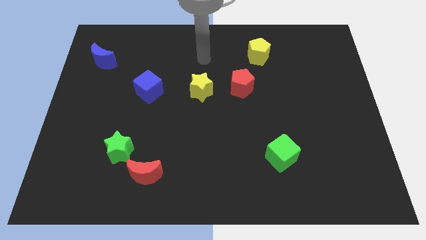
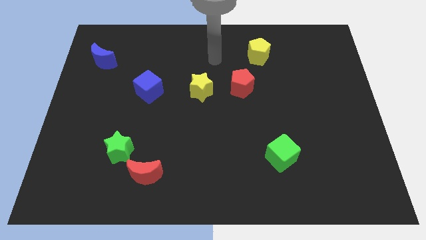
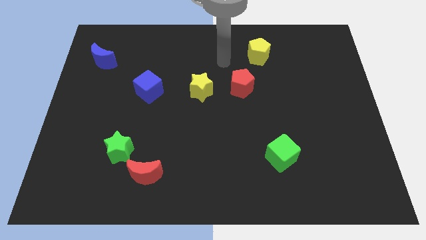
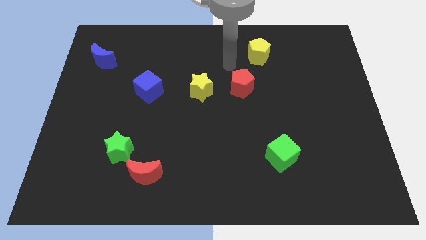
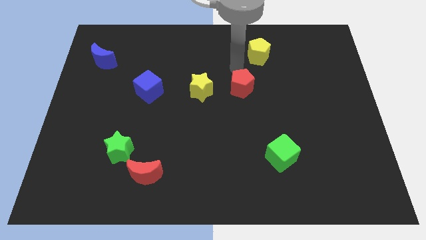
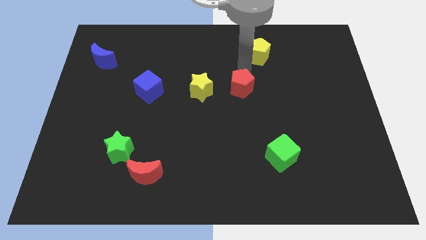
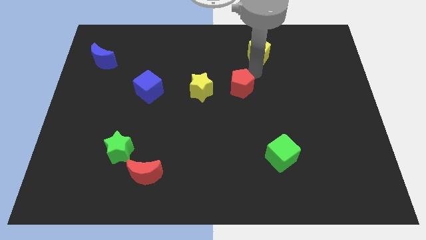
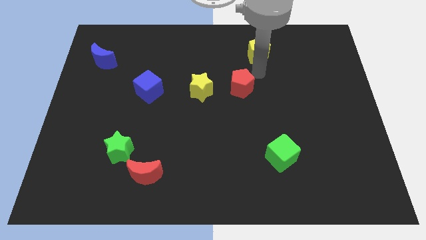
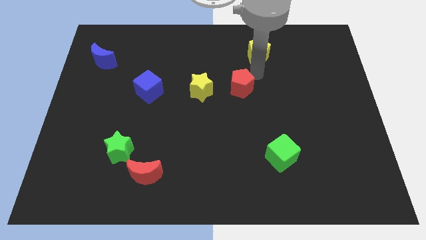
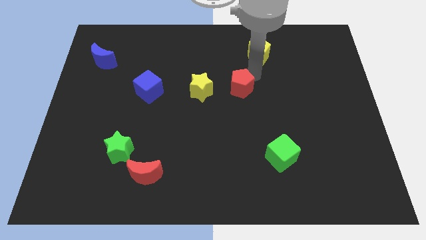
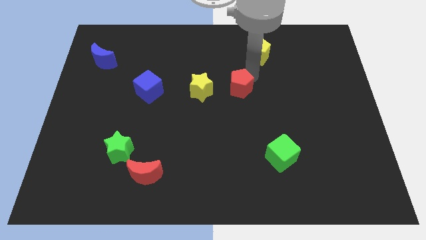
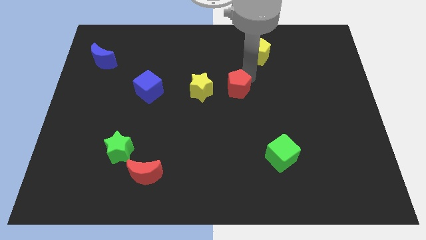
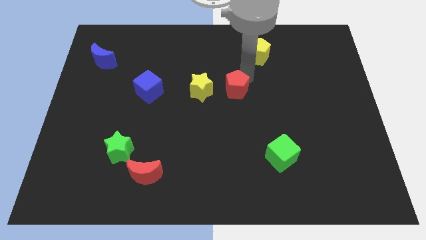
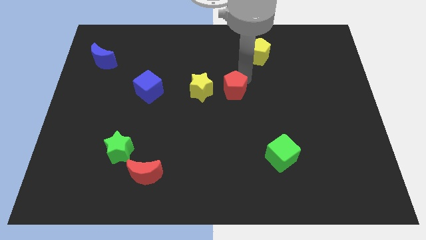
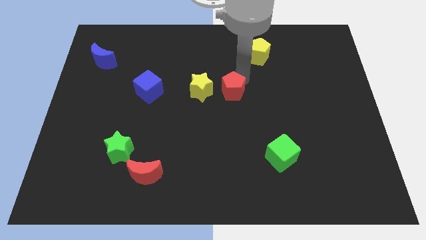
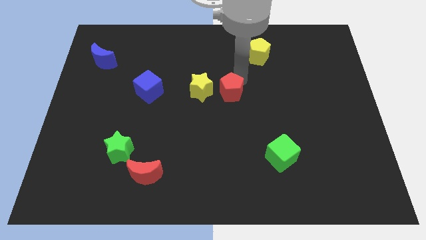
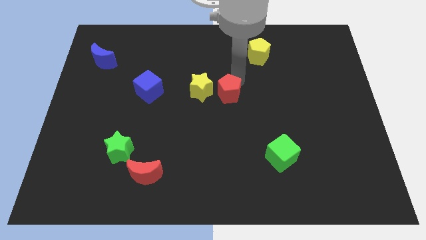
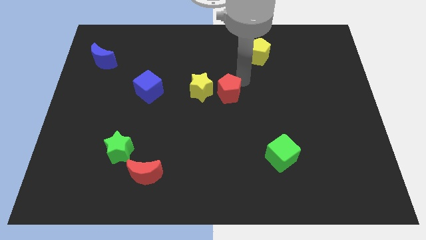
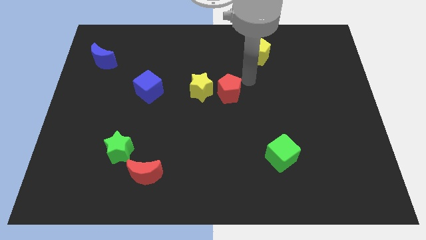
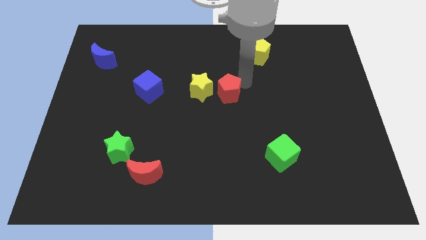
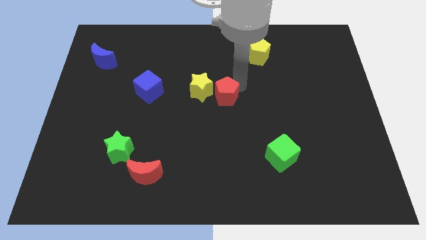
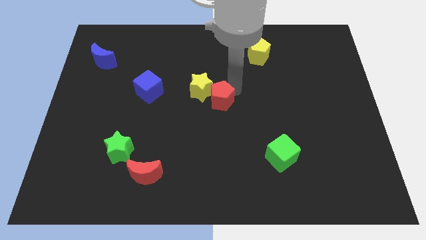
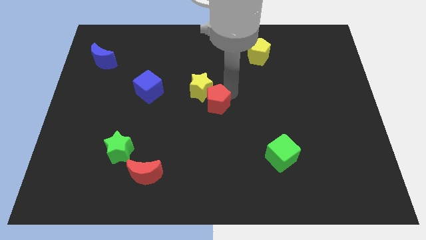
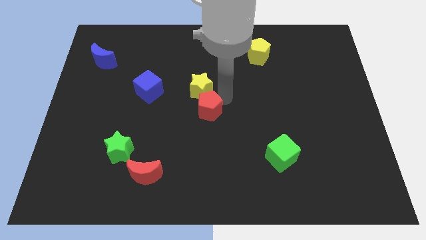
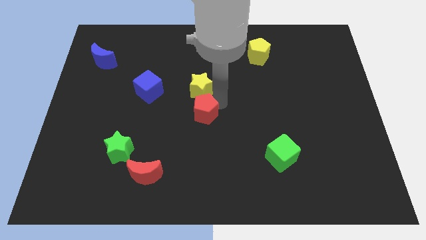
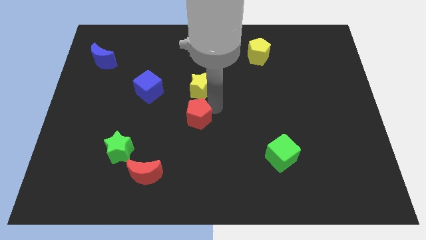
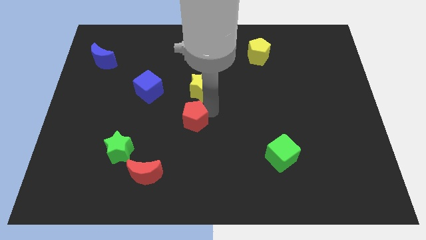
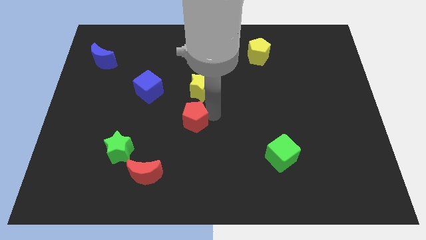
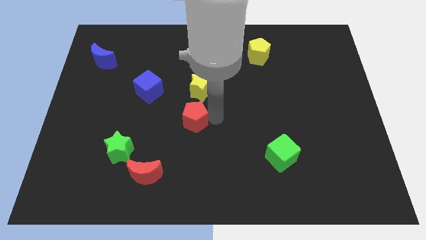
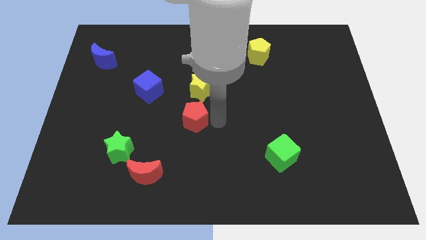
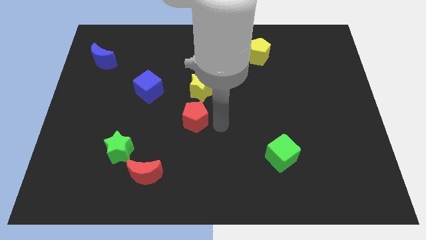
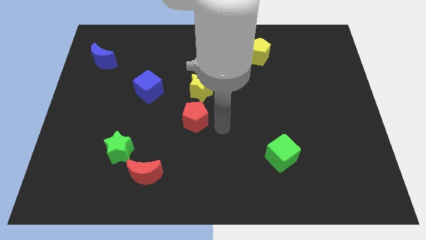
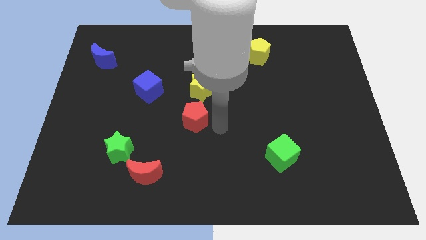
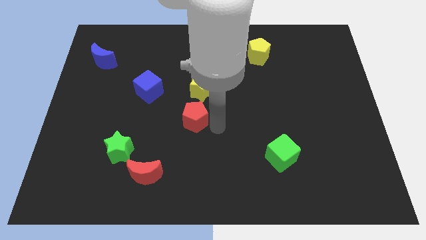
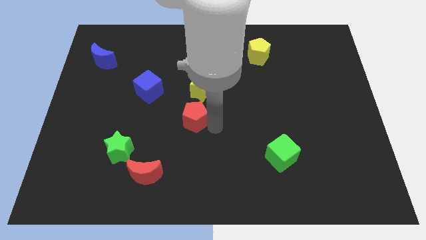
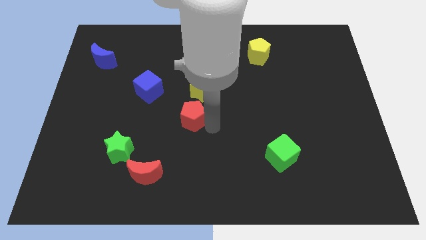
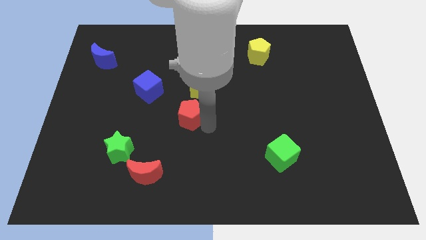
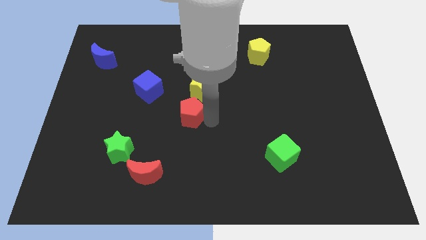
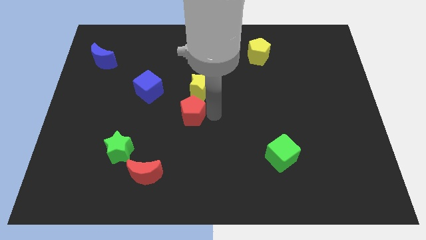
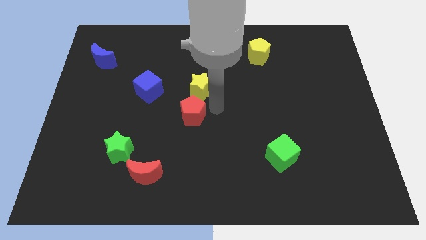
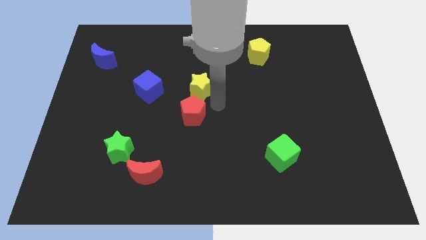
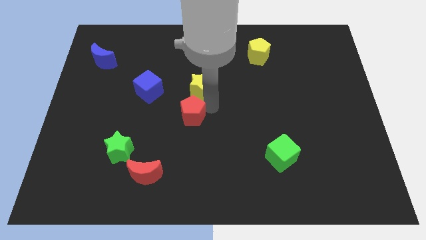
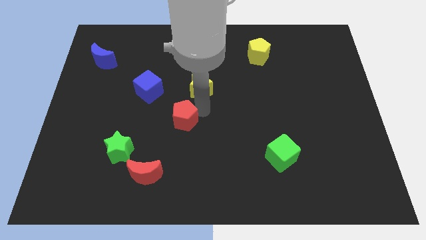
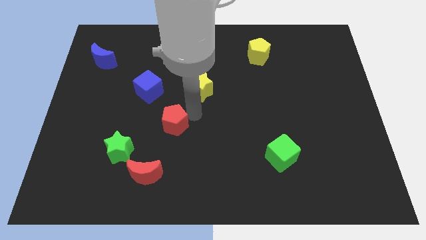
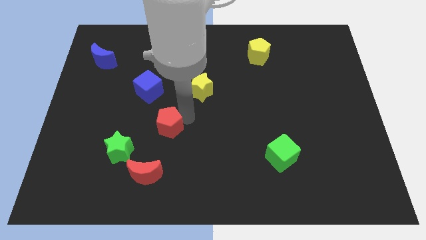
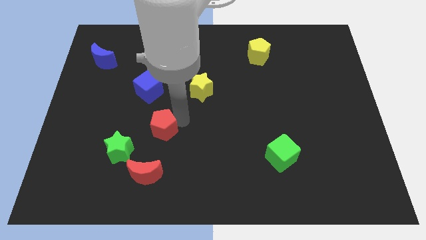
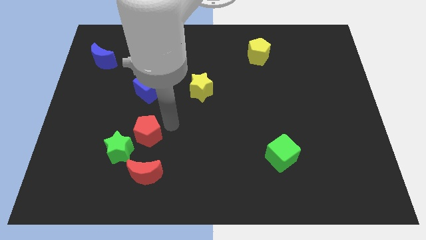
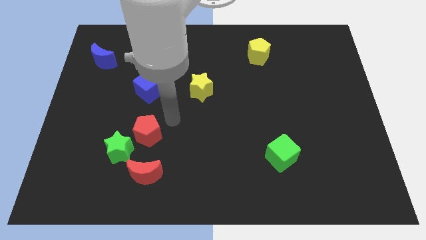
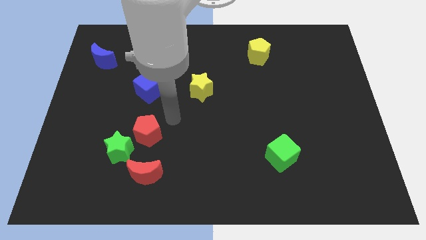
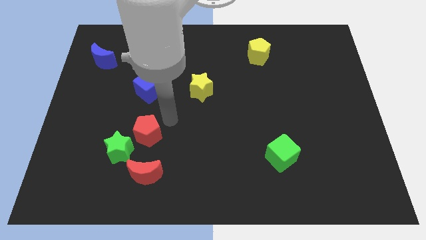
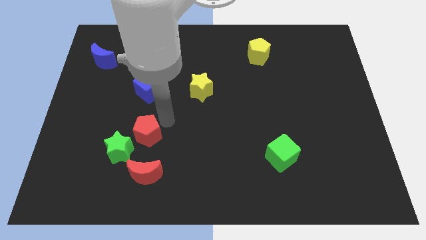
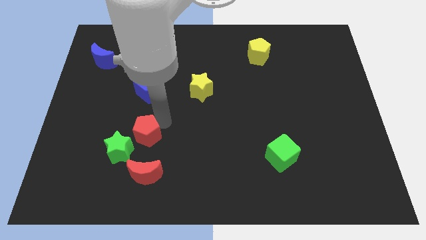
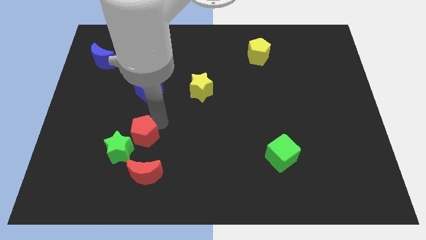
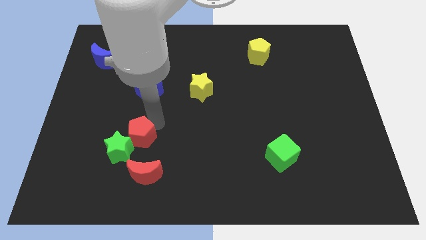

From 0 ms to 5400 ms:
push the red pentagon towards the green star

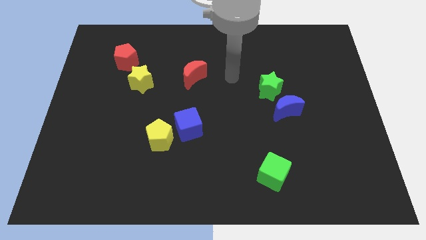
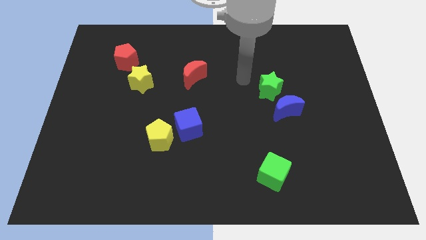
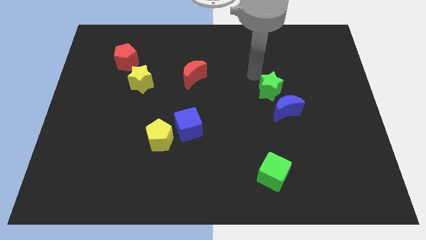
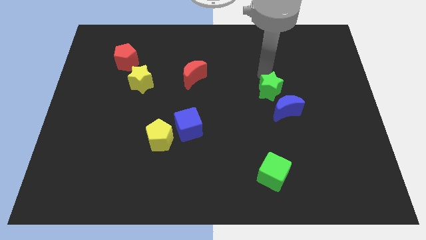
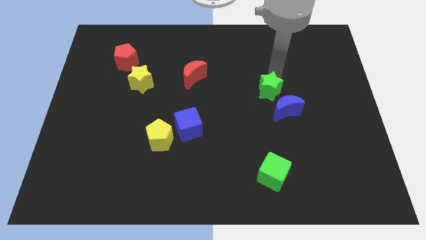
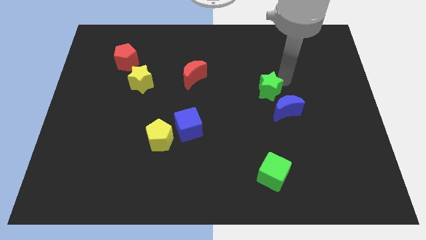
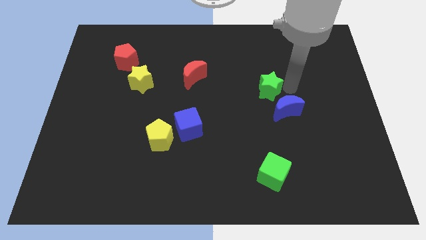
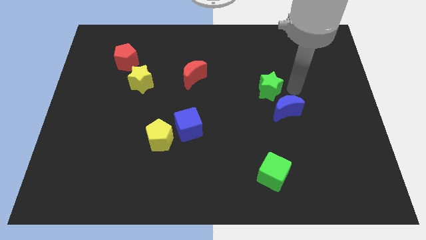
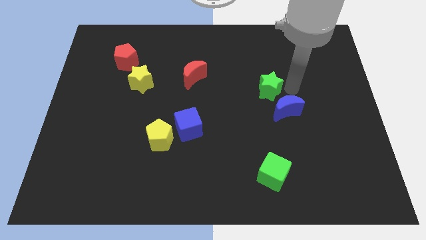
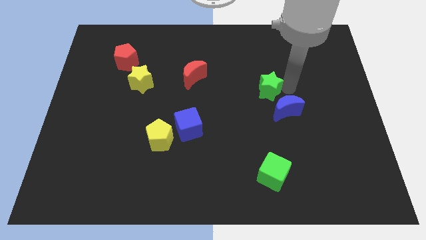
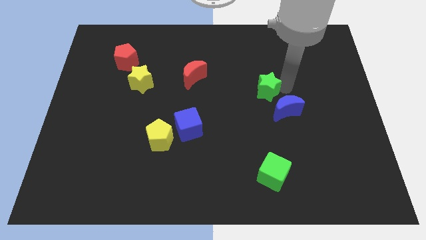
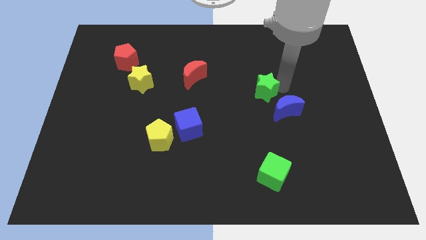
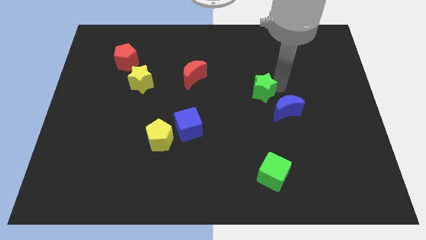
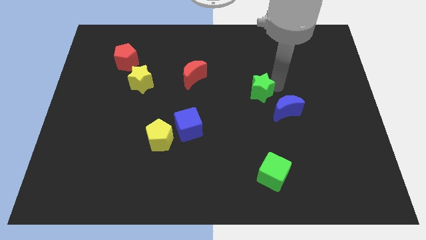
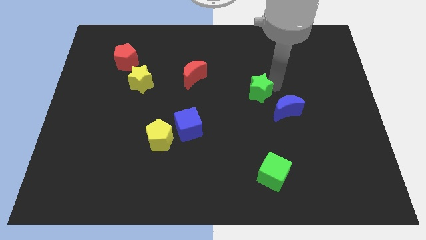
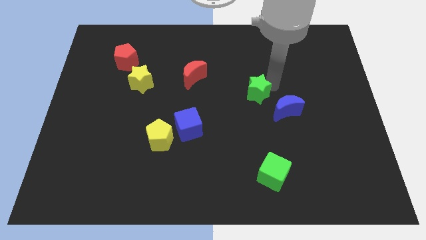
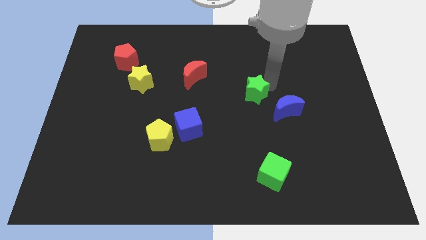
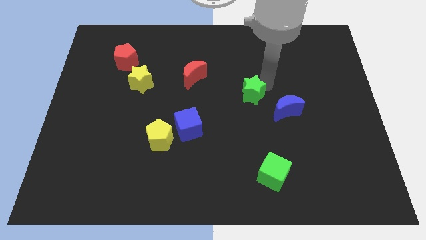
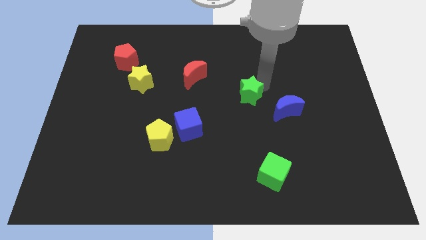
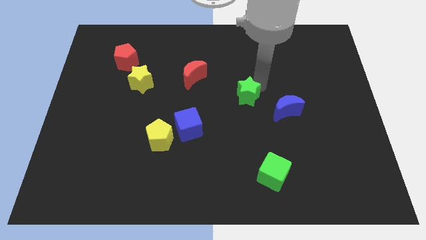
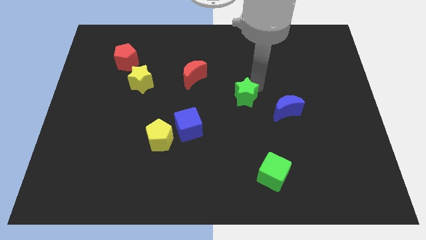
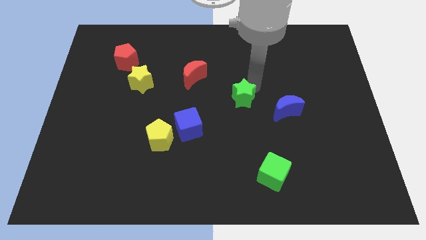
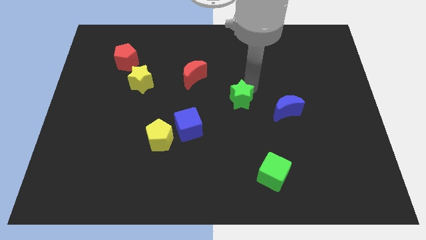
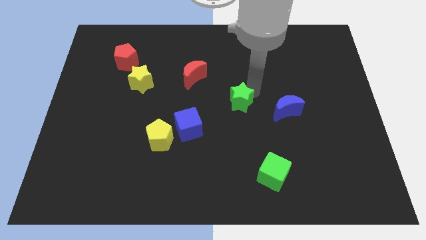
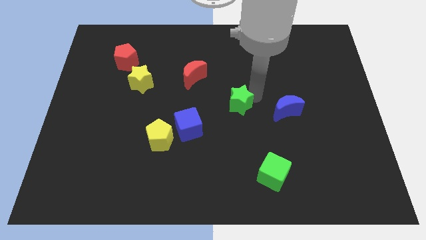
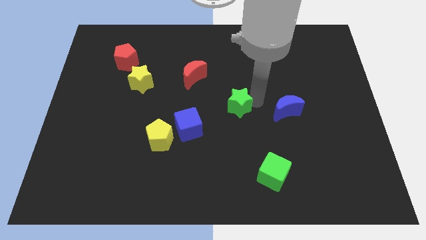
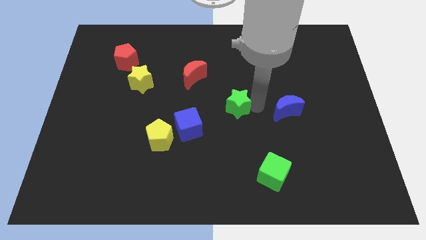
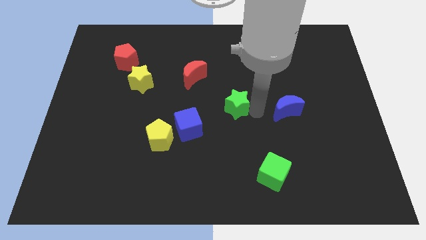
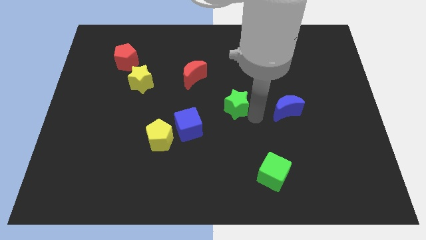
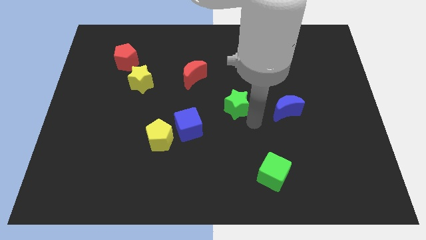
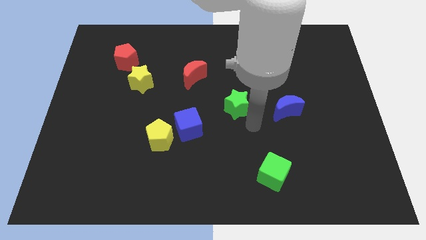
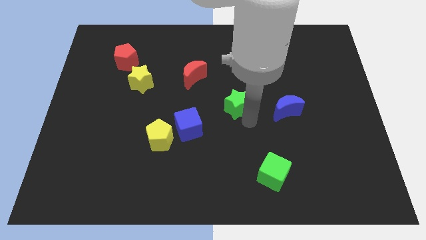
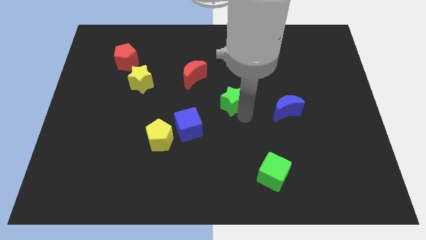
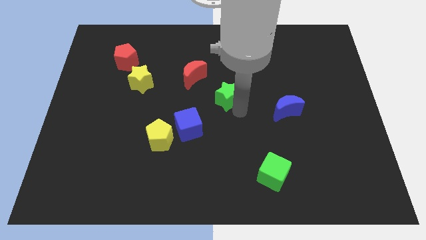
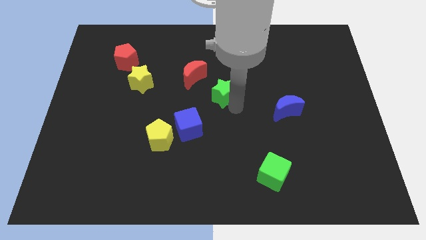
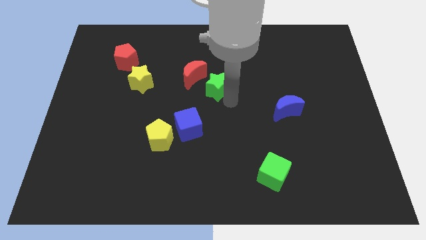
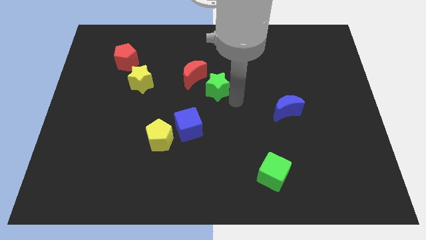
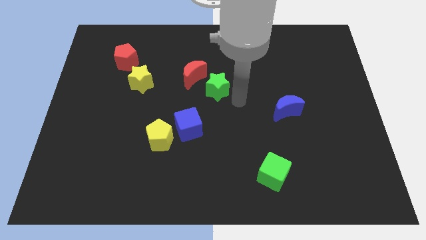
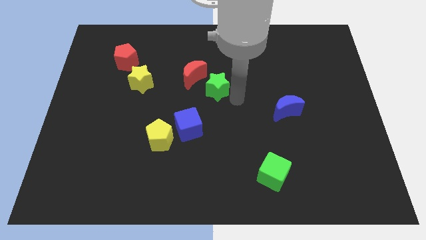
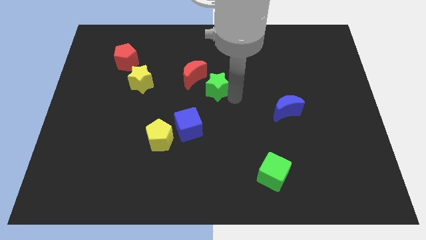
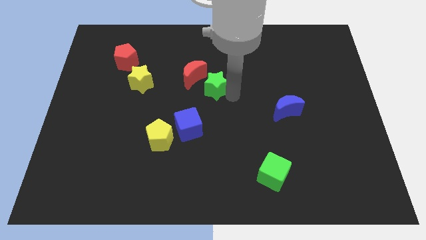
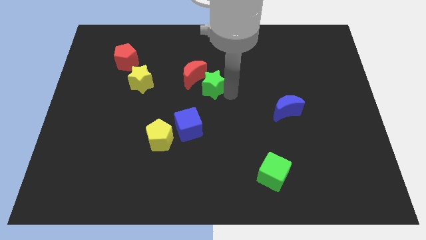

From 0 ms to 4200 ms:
move the green star next to the red moon
